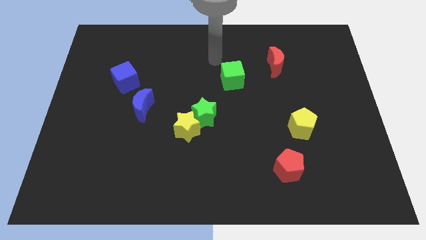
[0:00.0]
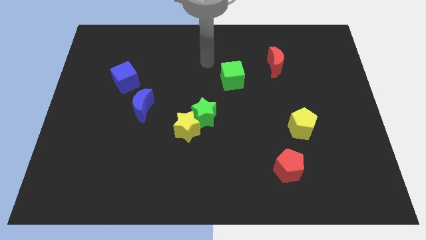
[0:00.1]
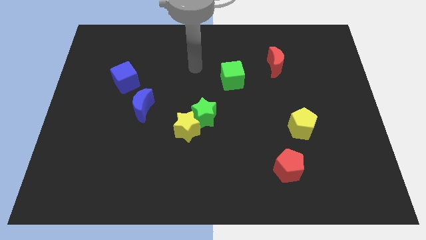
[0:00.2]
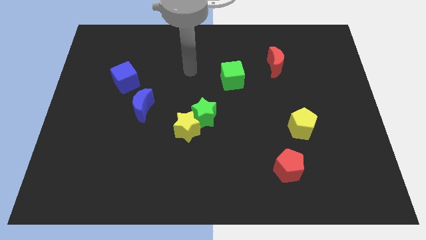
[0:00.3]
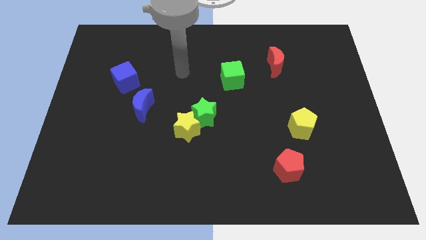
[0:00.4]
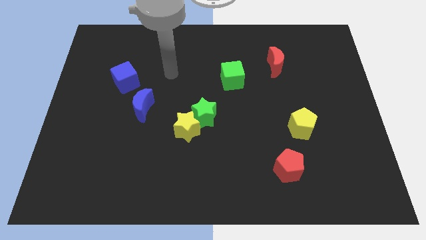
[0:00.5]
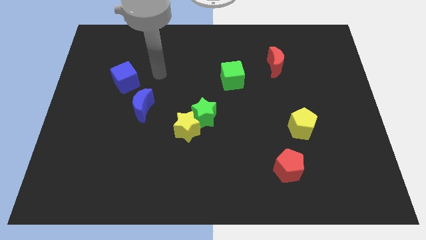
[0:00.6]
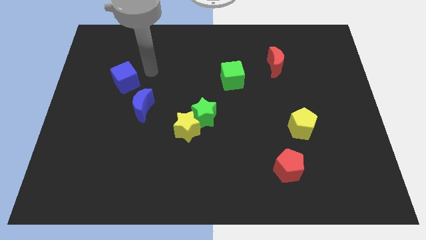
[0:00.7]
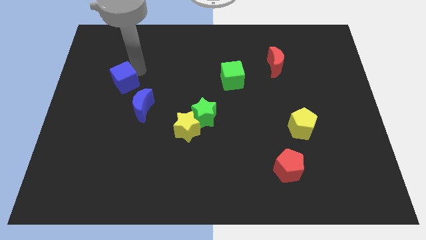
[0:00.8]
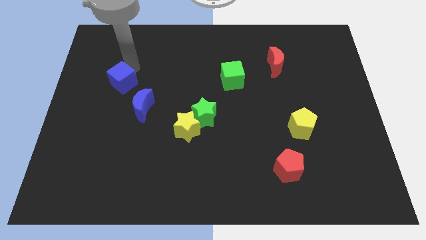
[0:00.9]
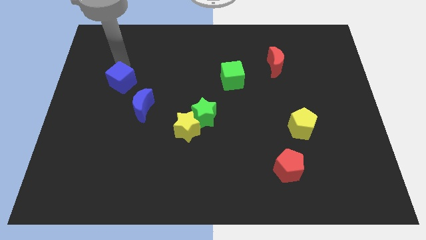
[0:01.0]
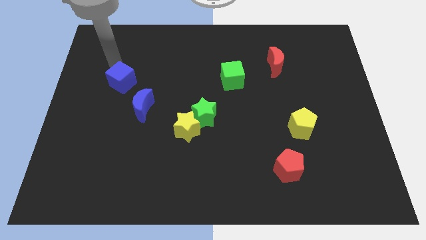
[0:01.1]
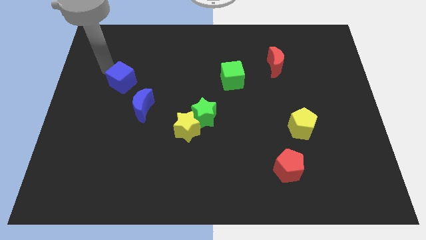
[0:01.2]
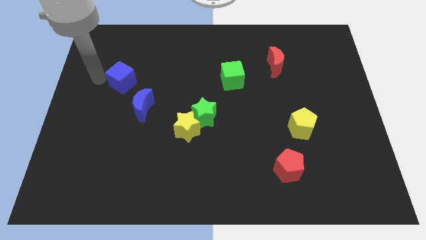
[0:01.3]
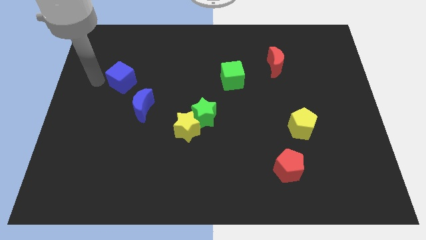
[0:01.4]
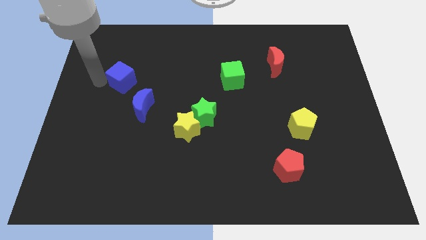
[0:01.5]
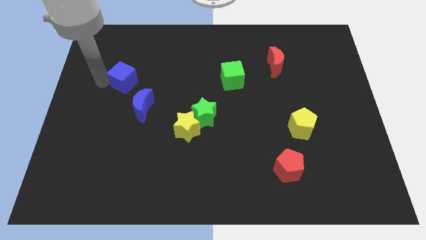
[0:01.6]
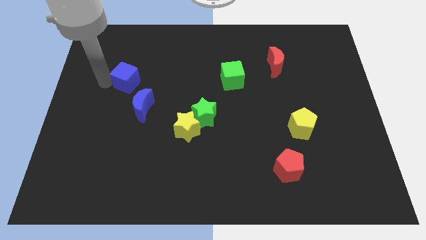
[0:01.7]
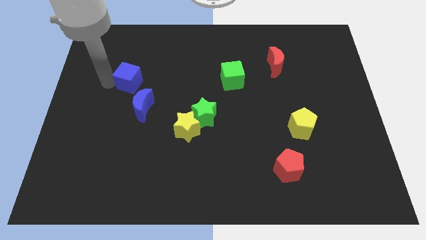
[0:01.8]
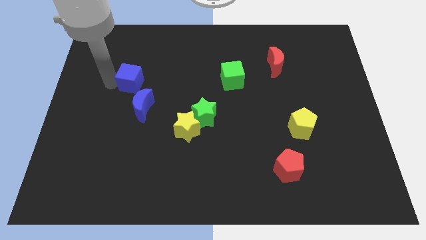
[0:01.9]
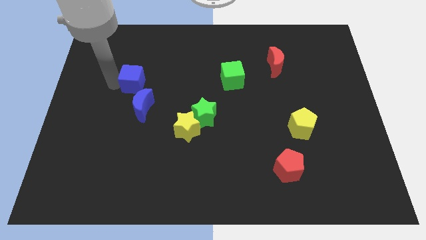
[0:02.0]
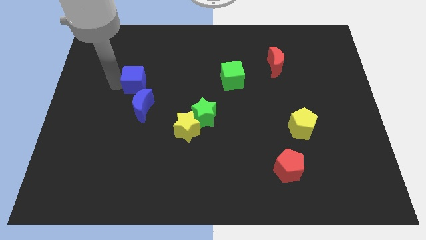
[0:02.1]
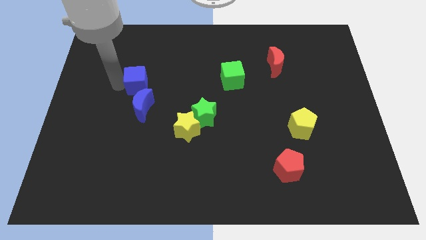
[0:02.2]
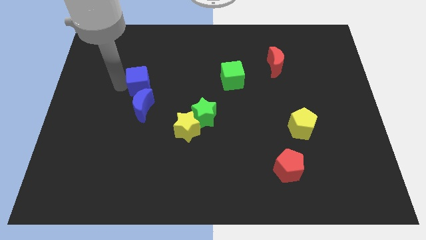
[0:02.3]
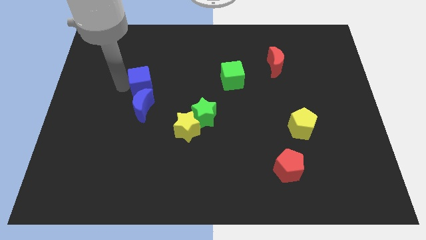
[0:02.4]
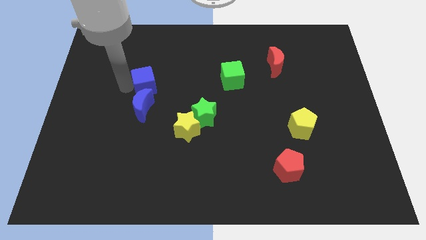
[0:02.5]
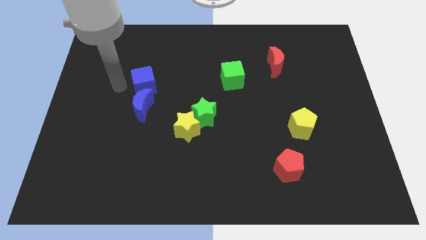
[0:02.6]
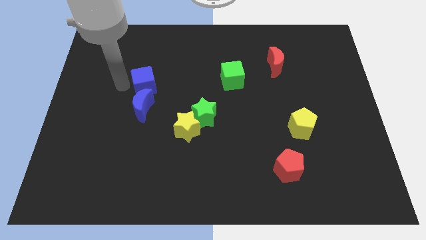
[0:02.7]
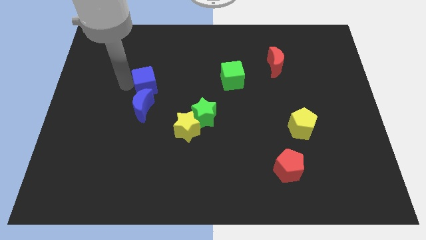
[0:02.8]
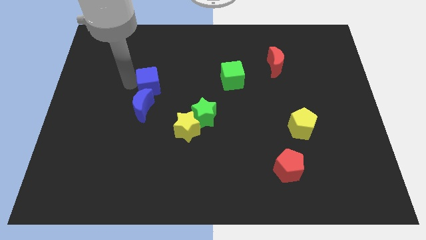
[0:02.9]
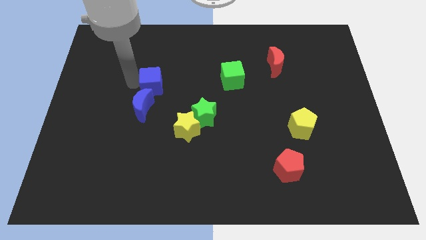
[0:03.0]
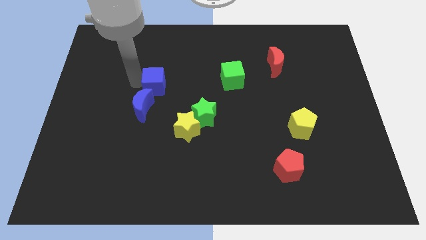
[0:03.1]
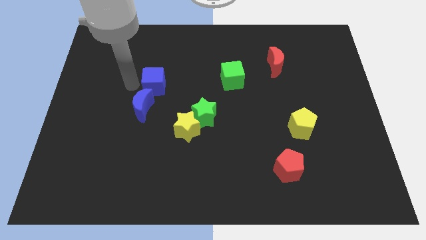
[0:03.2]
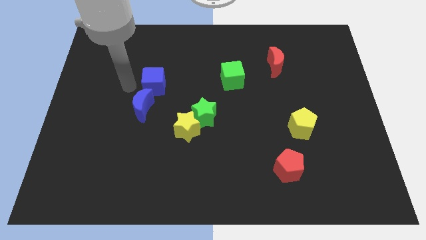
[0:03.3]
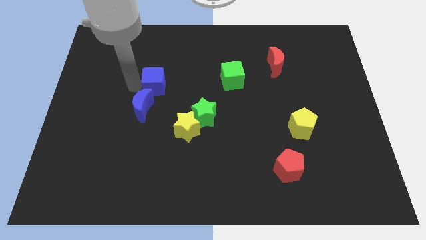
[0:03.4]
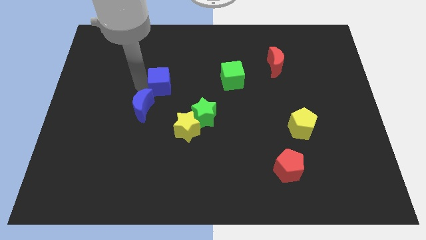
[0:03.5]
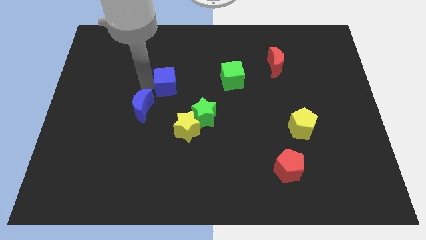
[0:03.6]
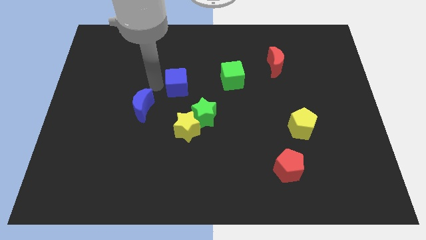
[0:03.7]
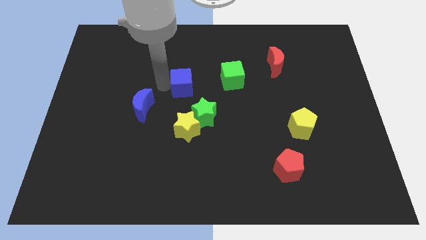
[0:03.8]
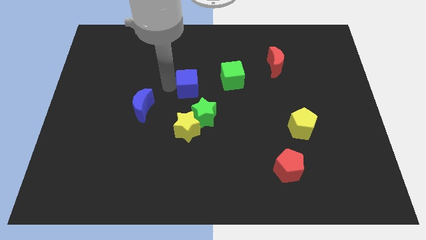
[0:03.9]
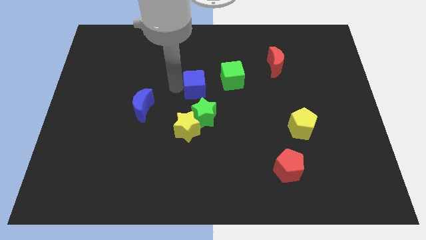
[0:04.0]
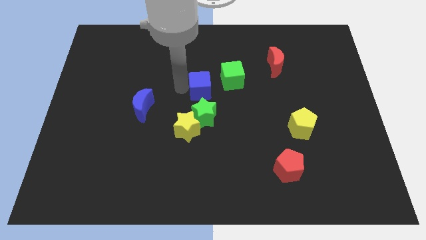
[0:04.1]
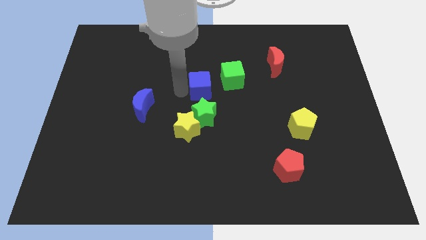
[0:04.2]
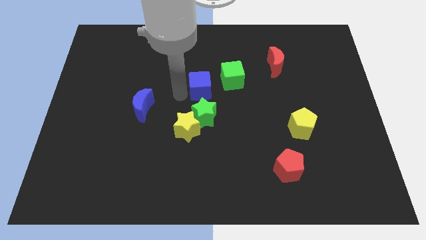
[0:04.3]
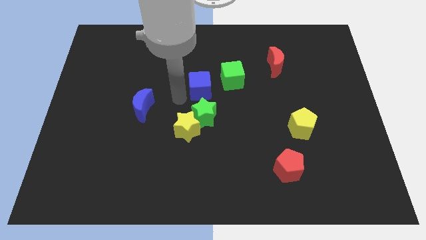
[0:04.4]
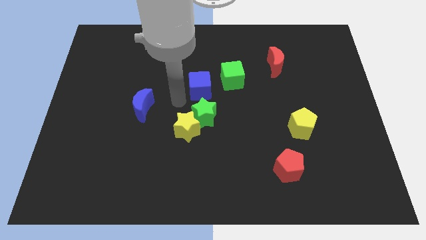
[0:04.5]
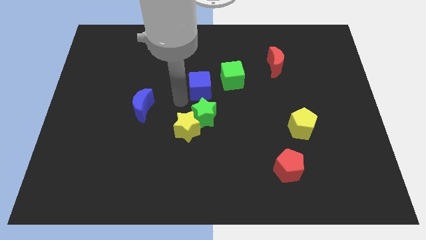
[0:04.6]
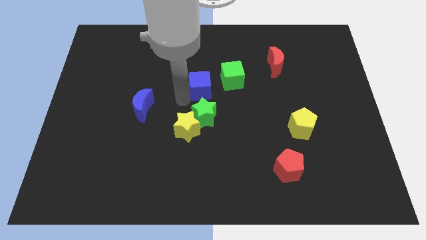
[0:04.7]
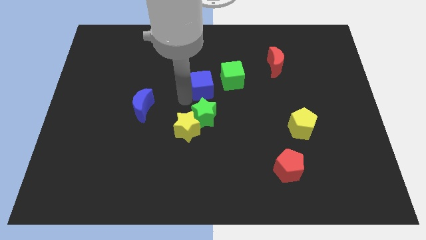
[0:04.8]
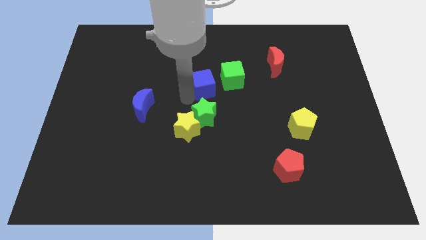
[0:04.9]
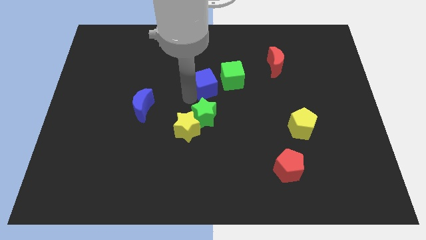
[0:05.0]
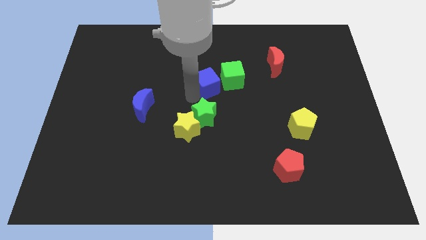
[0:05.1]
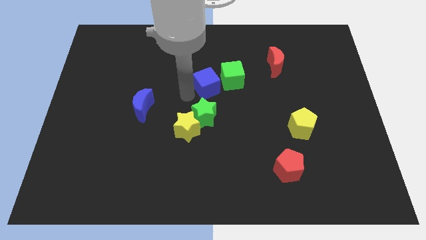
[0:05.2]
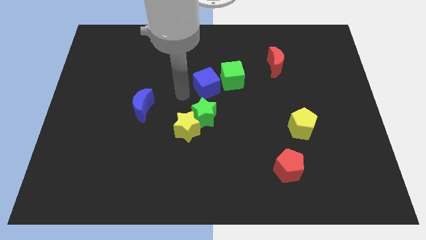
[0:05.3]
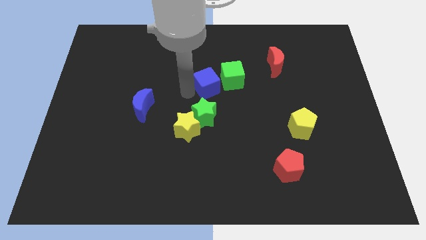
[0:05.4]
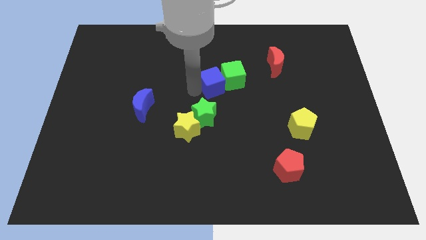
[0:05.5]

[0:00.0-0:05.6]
push the blue cube next to the green cube

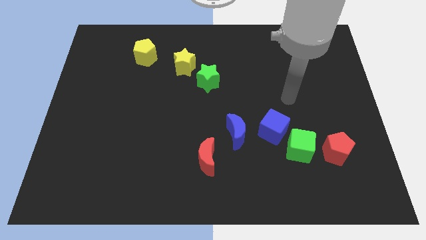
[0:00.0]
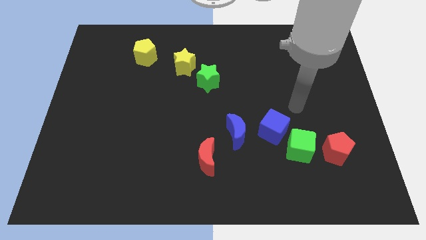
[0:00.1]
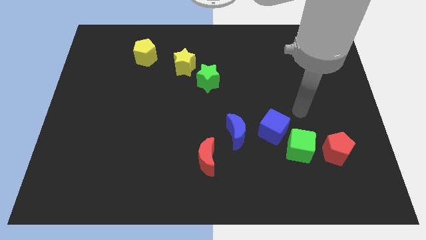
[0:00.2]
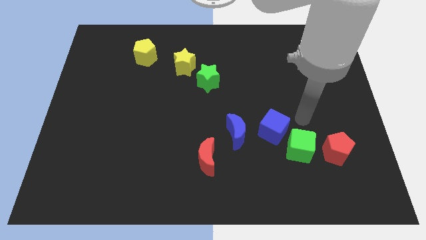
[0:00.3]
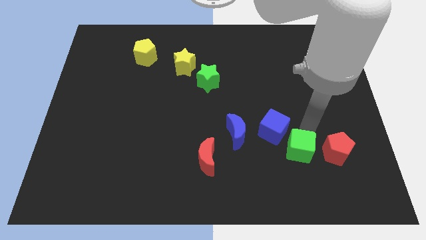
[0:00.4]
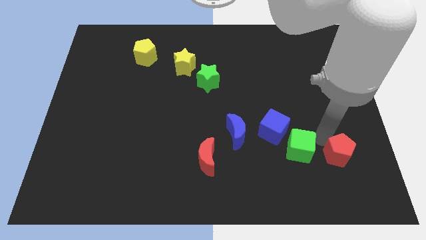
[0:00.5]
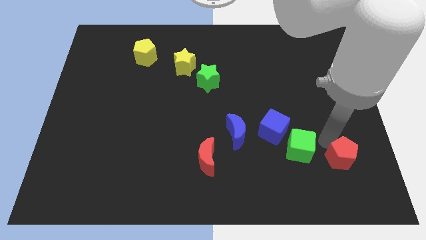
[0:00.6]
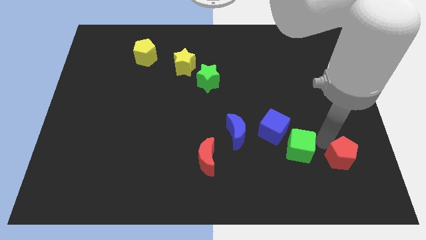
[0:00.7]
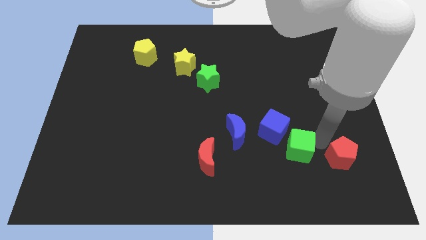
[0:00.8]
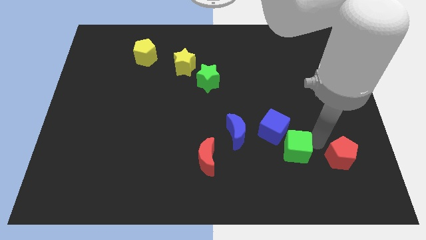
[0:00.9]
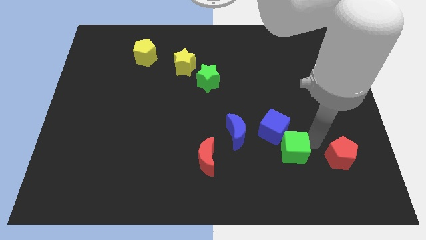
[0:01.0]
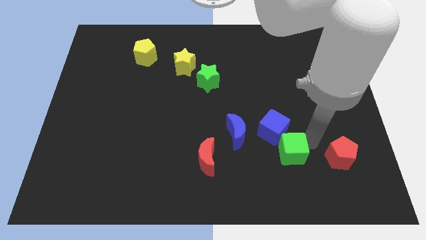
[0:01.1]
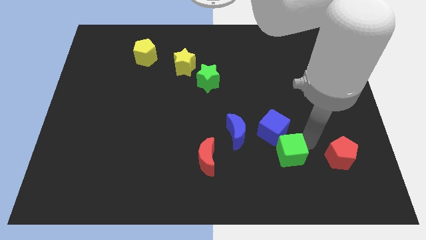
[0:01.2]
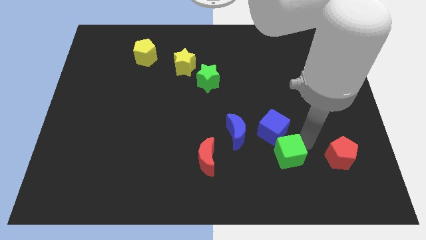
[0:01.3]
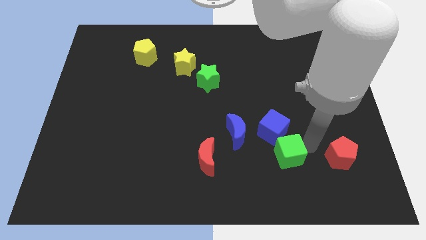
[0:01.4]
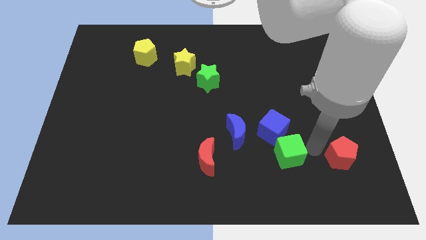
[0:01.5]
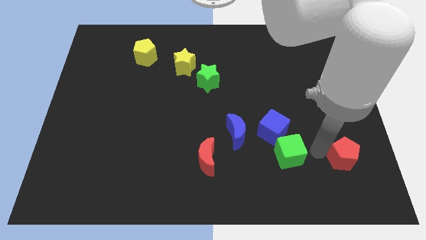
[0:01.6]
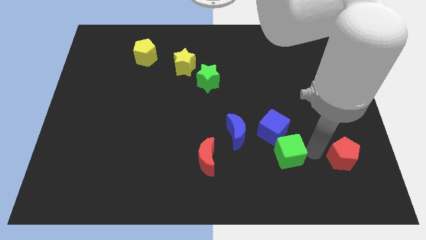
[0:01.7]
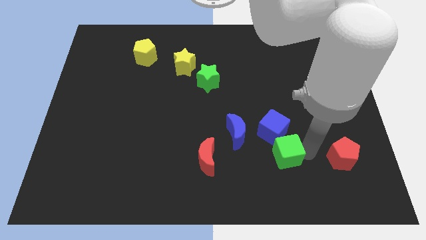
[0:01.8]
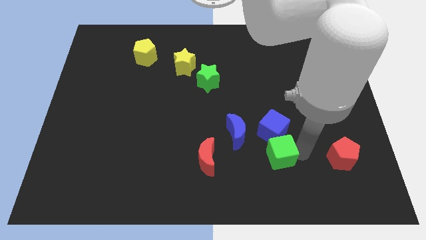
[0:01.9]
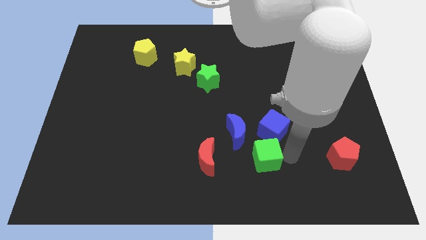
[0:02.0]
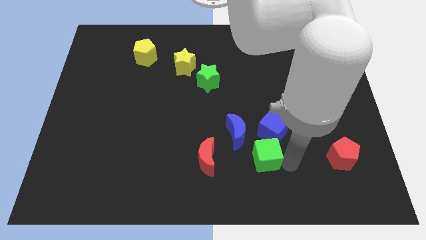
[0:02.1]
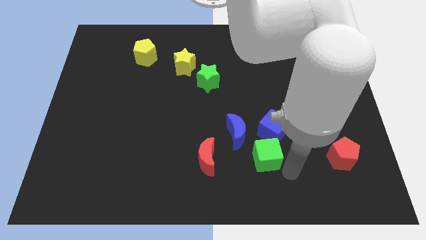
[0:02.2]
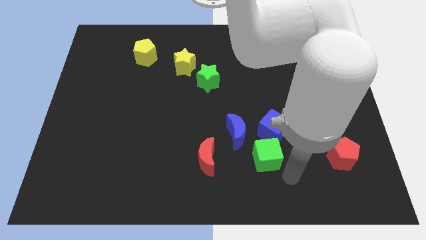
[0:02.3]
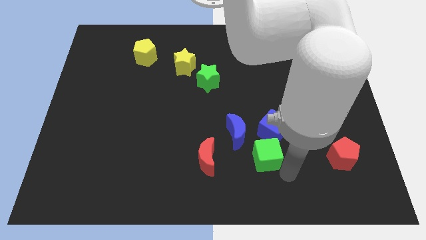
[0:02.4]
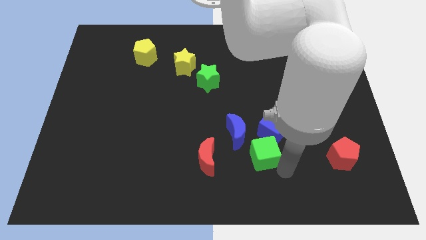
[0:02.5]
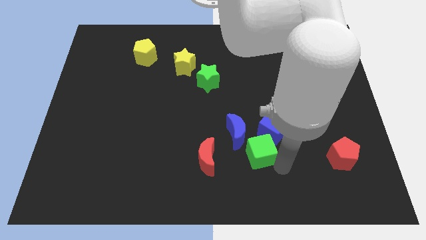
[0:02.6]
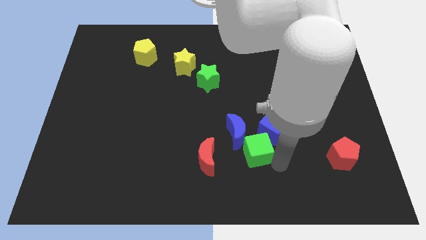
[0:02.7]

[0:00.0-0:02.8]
put the green cube towards the blue moon
